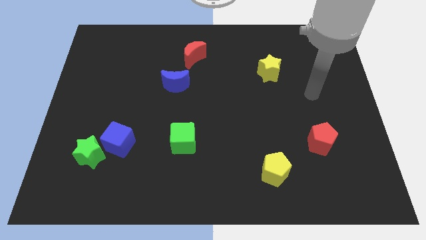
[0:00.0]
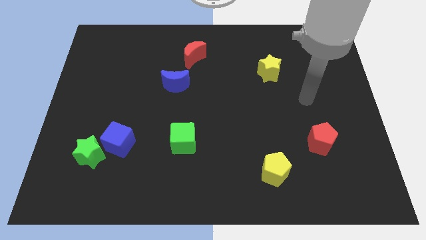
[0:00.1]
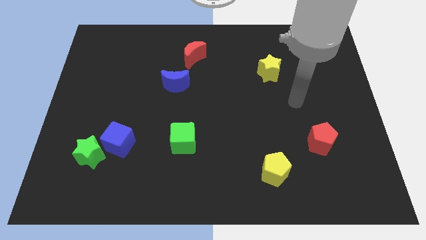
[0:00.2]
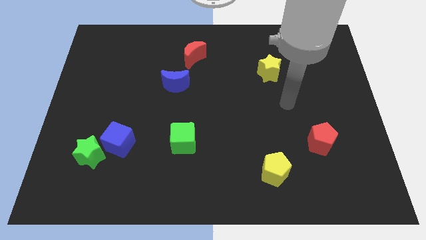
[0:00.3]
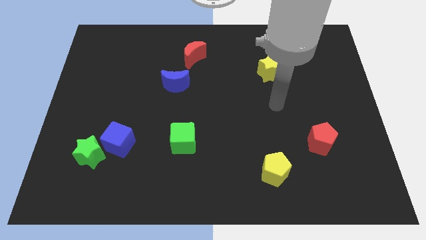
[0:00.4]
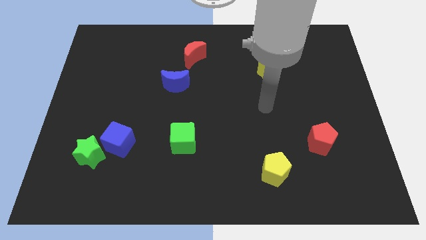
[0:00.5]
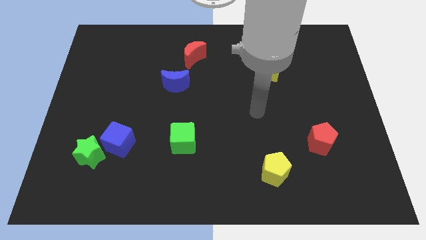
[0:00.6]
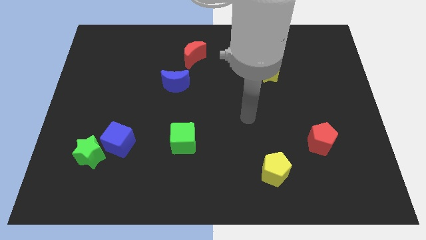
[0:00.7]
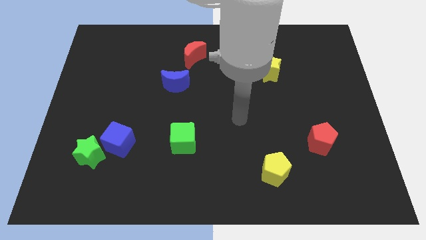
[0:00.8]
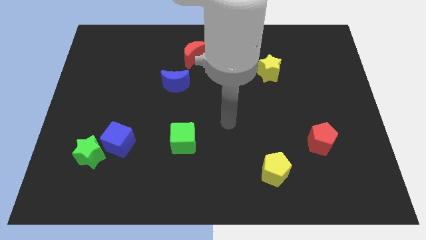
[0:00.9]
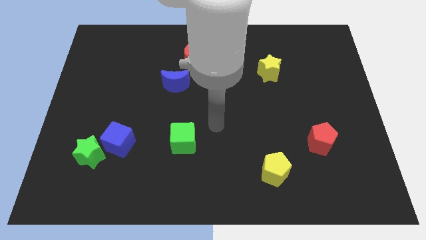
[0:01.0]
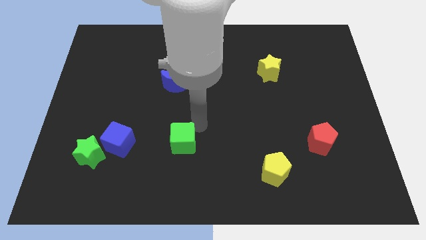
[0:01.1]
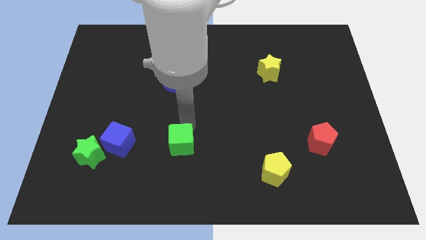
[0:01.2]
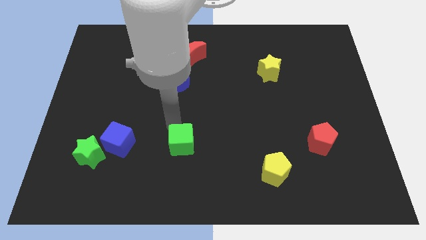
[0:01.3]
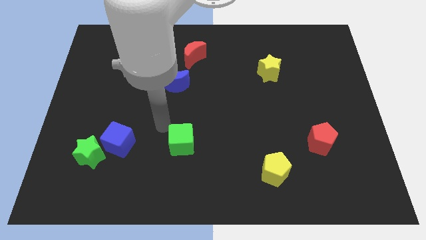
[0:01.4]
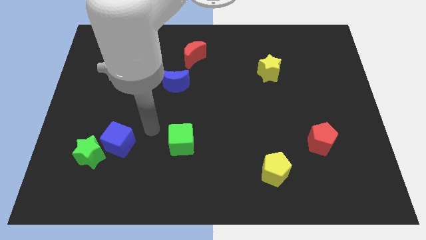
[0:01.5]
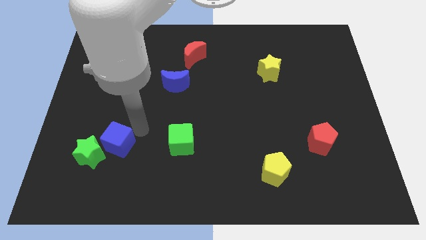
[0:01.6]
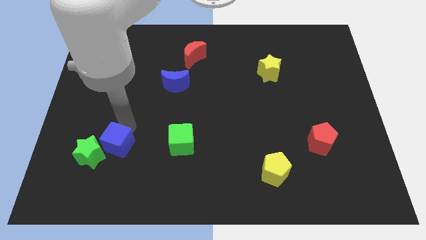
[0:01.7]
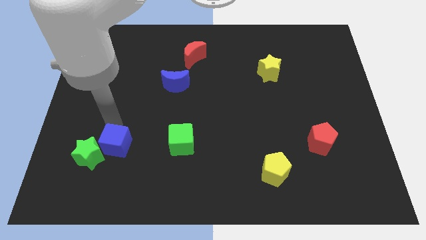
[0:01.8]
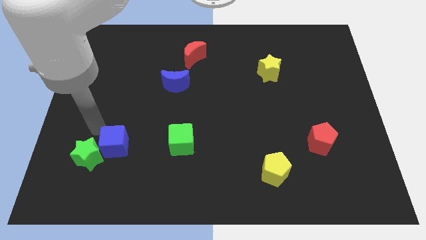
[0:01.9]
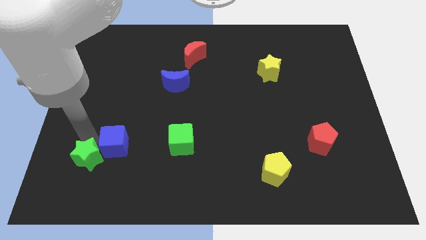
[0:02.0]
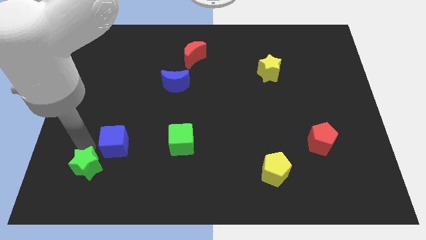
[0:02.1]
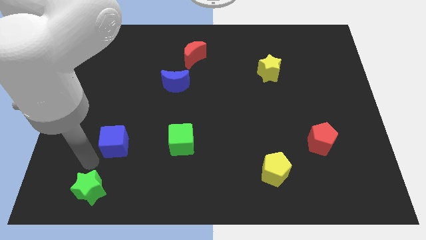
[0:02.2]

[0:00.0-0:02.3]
separate the blue cube from the green star

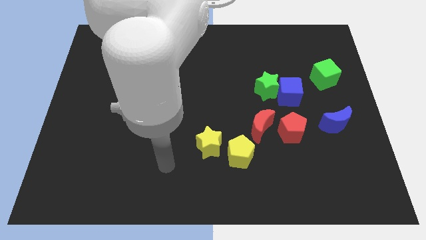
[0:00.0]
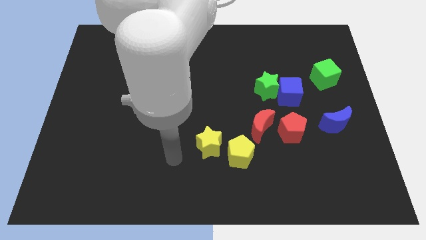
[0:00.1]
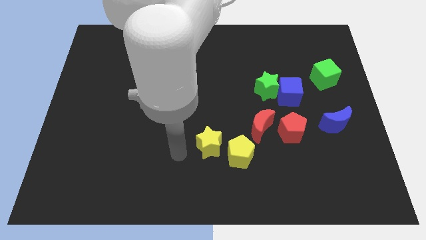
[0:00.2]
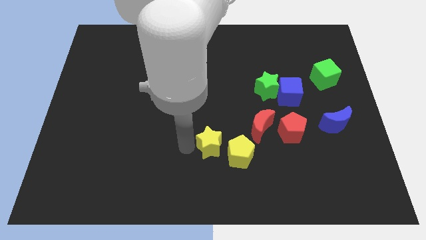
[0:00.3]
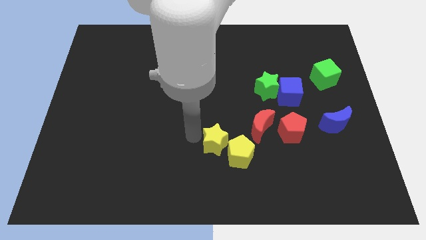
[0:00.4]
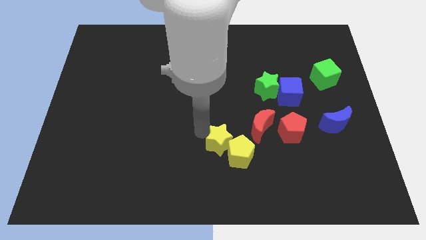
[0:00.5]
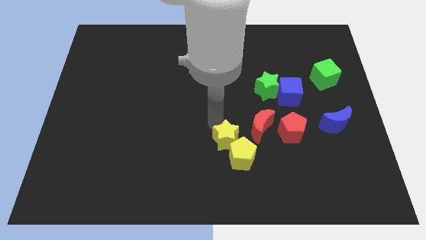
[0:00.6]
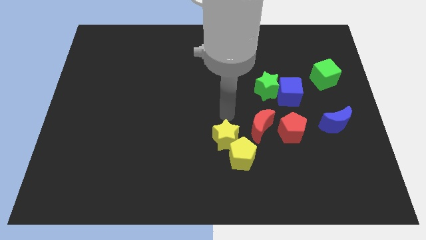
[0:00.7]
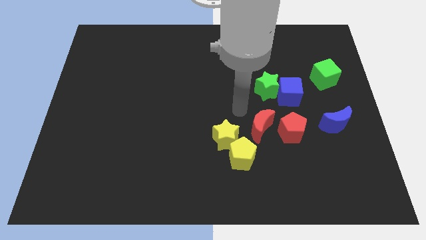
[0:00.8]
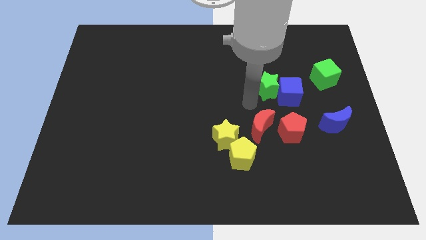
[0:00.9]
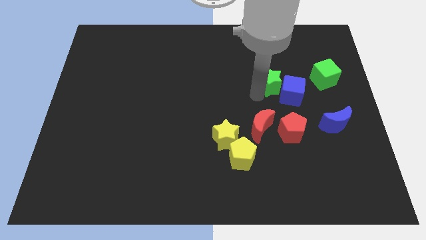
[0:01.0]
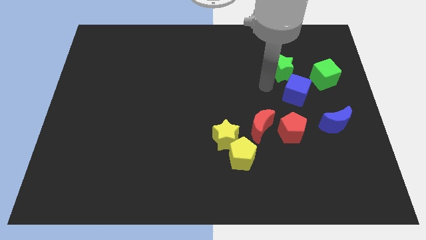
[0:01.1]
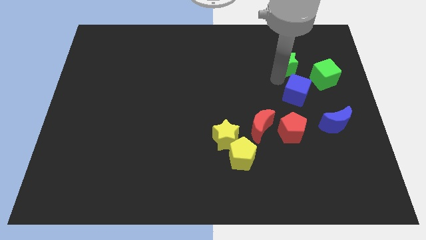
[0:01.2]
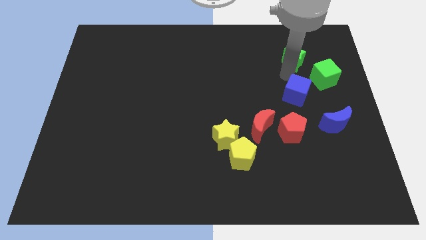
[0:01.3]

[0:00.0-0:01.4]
move the blue cube away from the green star

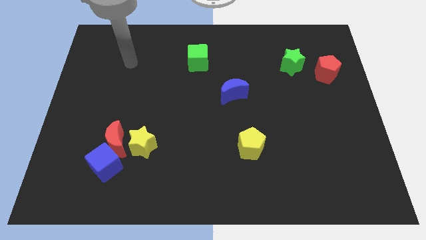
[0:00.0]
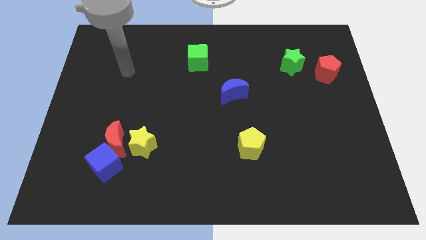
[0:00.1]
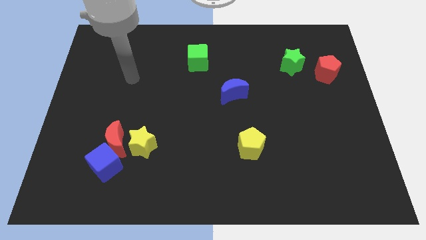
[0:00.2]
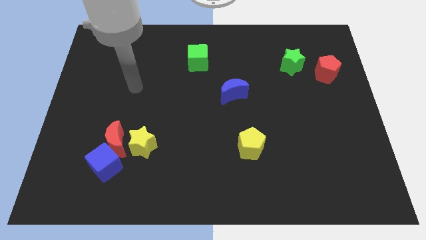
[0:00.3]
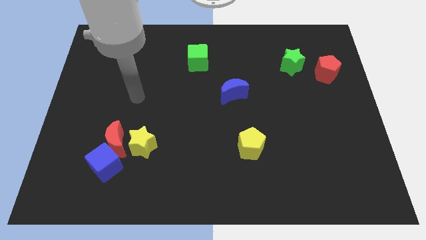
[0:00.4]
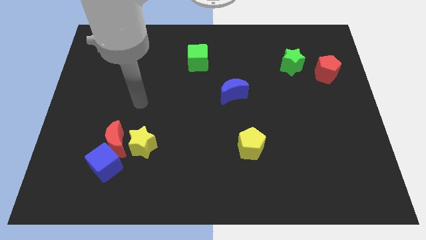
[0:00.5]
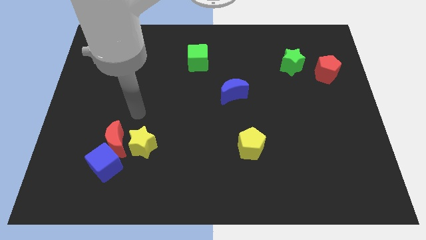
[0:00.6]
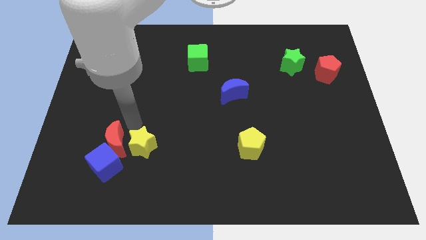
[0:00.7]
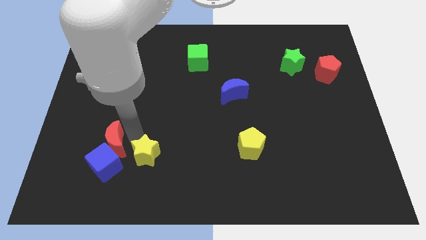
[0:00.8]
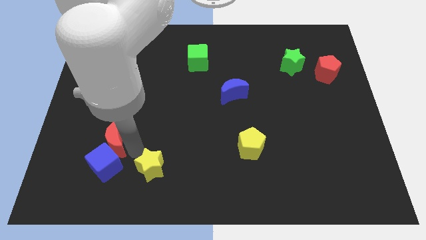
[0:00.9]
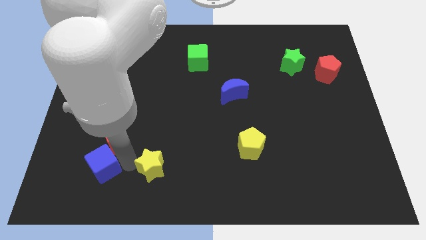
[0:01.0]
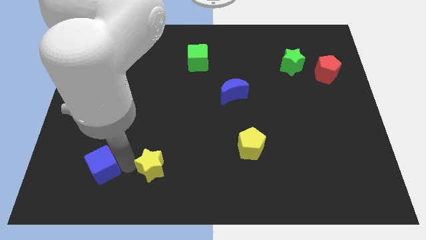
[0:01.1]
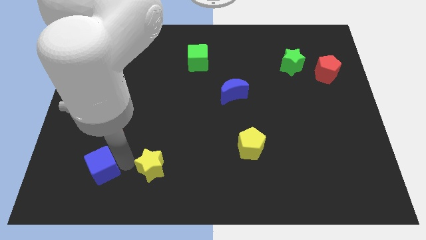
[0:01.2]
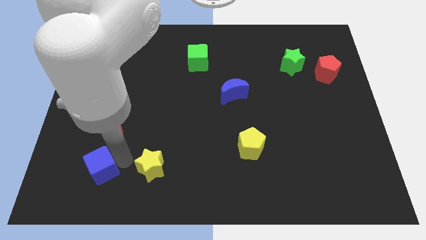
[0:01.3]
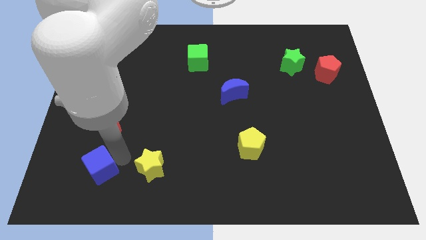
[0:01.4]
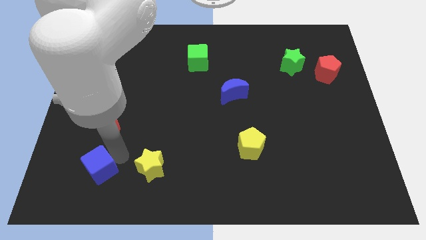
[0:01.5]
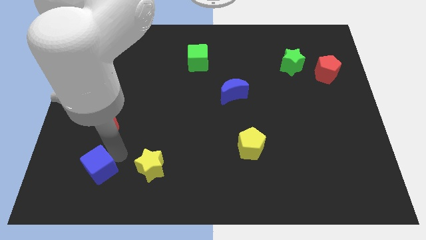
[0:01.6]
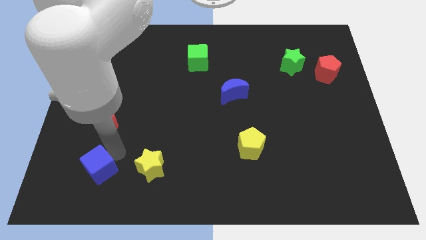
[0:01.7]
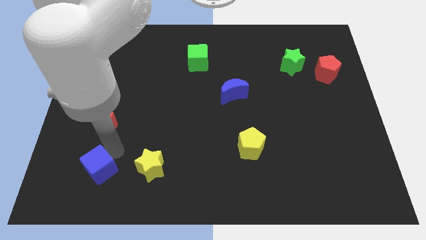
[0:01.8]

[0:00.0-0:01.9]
pull the red moon apart from the blue cube and yellow star

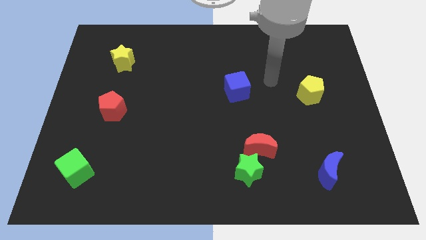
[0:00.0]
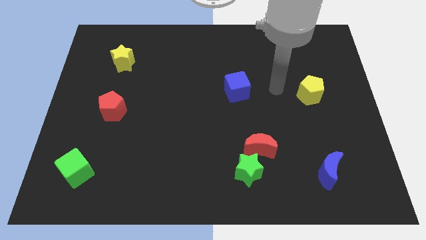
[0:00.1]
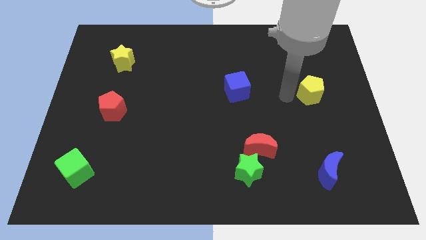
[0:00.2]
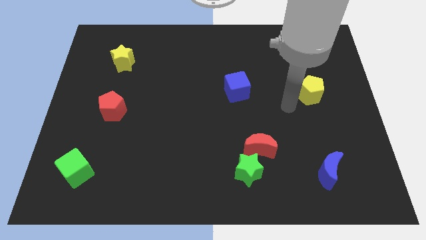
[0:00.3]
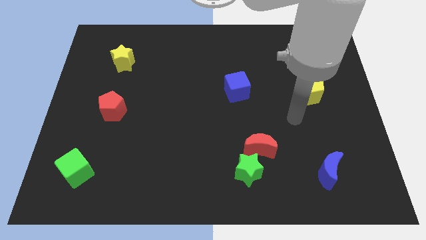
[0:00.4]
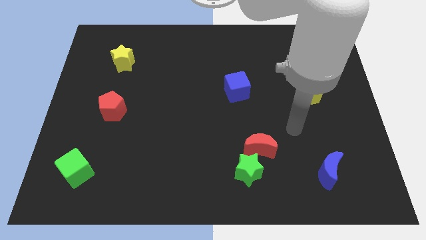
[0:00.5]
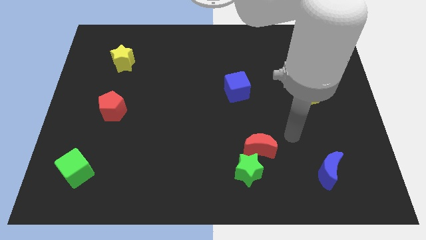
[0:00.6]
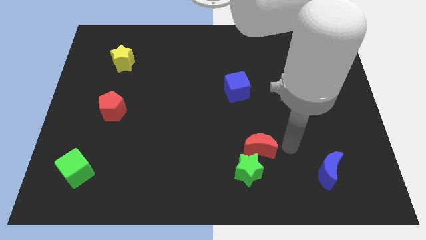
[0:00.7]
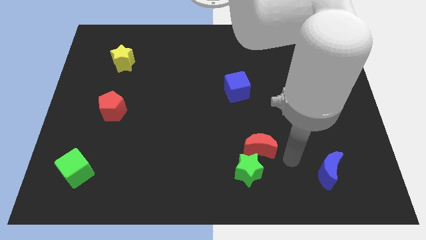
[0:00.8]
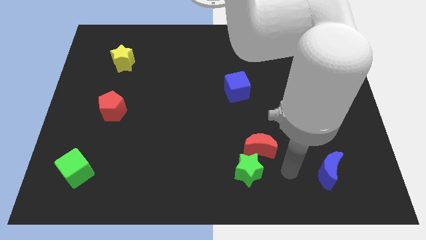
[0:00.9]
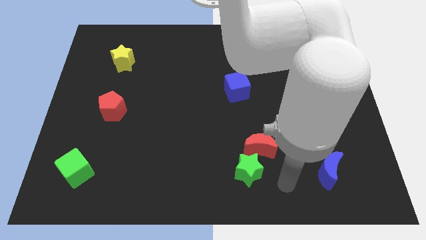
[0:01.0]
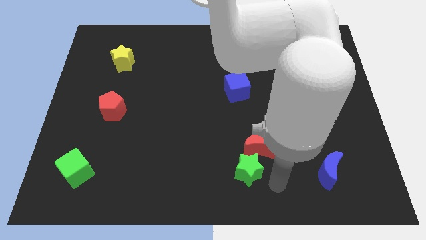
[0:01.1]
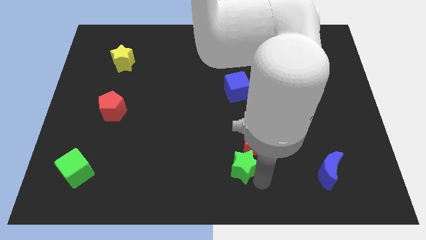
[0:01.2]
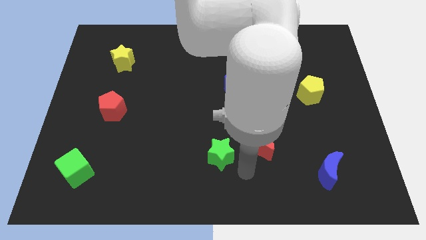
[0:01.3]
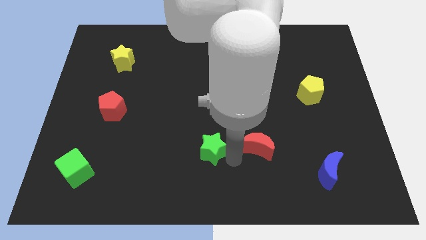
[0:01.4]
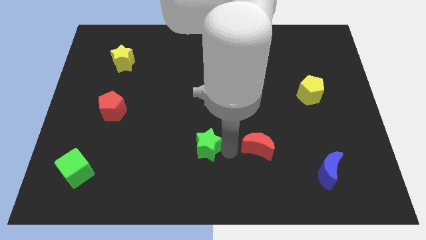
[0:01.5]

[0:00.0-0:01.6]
separate the red moon from the green star

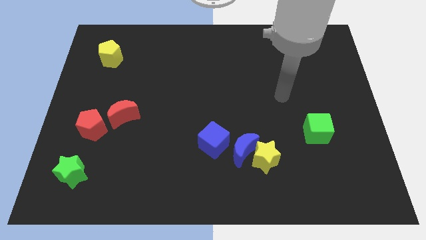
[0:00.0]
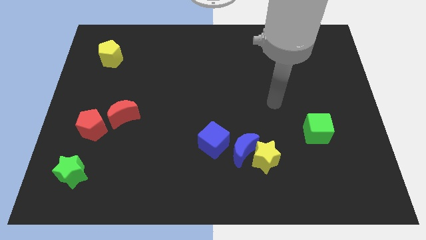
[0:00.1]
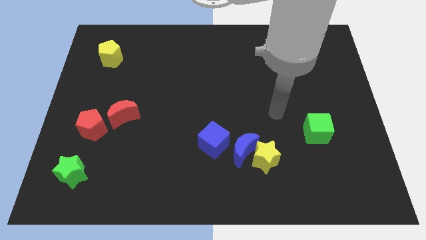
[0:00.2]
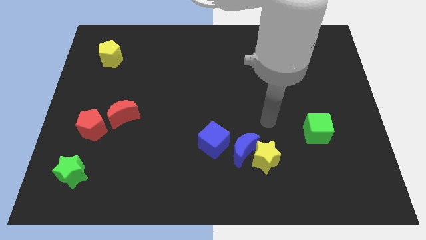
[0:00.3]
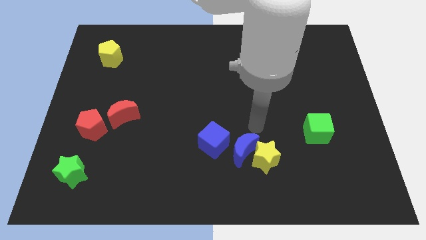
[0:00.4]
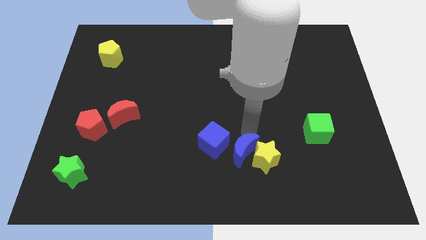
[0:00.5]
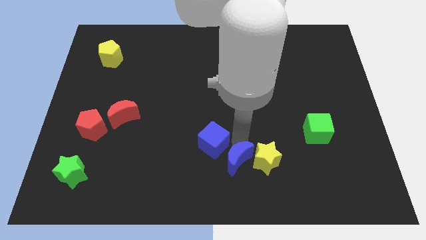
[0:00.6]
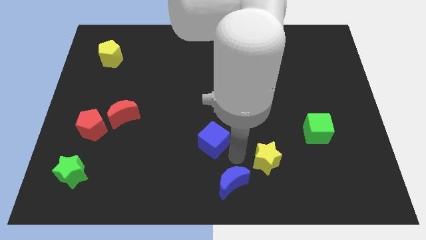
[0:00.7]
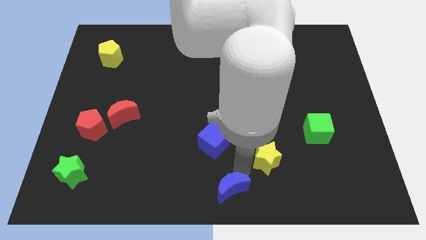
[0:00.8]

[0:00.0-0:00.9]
pull the yellow star apart from the blue moon

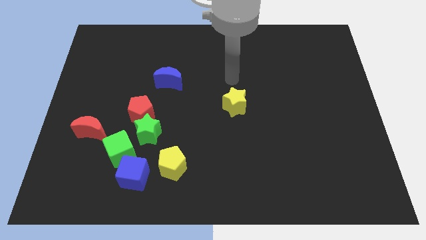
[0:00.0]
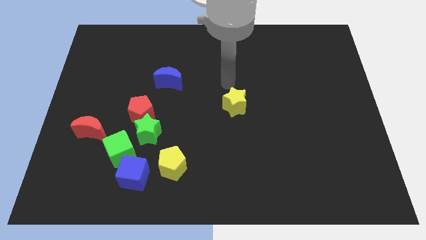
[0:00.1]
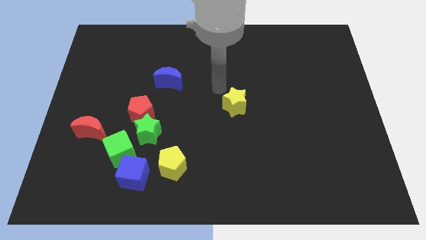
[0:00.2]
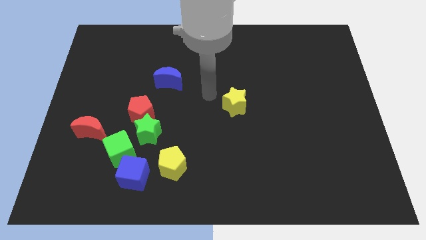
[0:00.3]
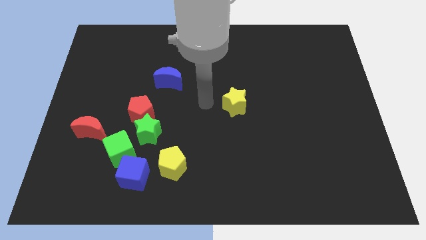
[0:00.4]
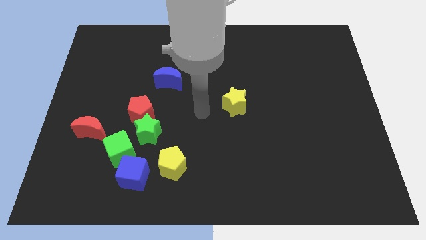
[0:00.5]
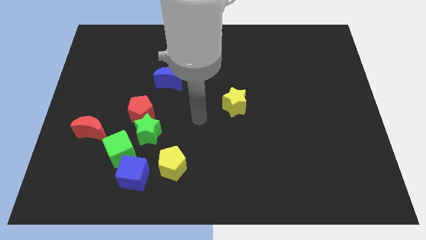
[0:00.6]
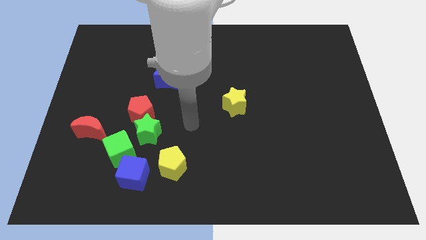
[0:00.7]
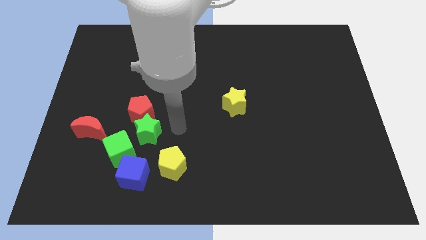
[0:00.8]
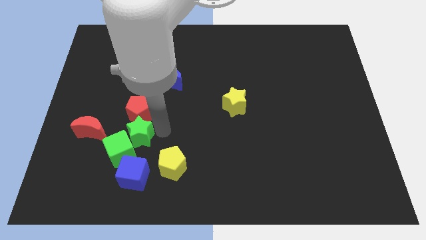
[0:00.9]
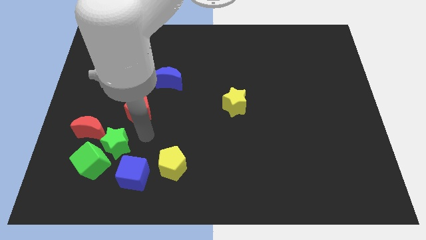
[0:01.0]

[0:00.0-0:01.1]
separate the red pentagon from the green star

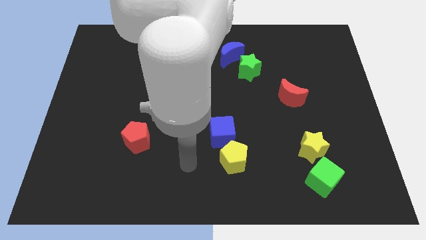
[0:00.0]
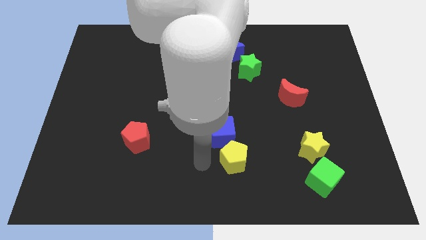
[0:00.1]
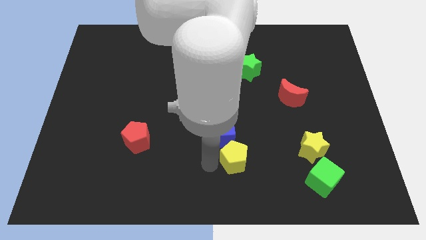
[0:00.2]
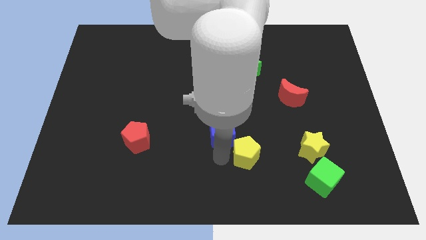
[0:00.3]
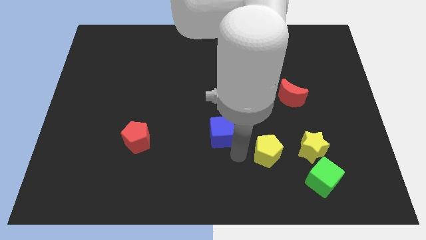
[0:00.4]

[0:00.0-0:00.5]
separate the blue cube from the yellow pentagon
